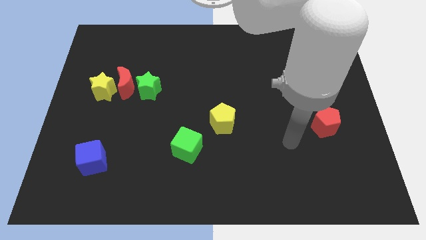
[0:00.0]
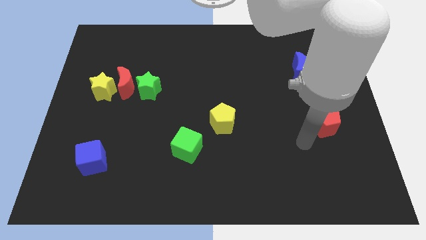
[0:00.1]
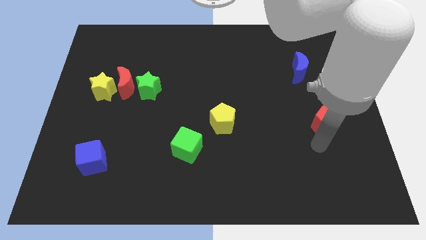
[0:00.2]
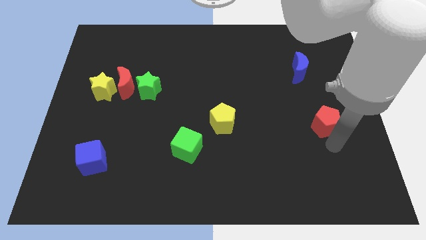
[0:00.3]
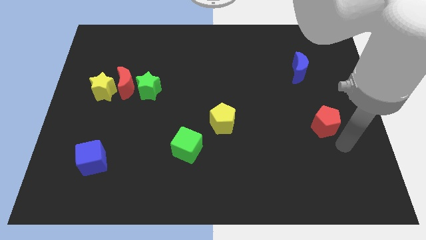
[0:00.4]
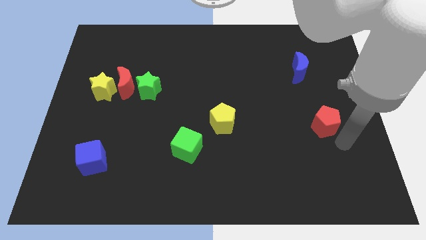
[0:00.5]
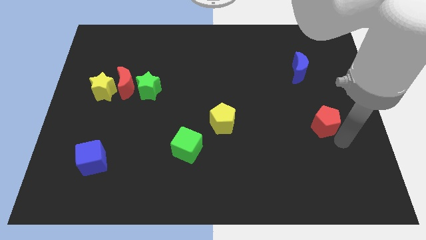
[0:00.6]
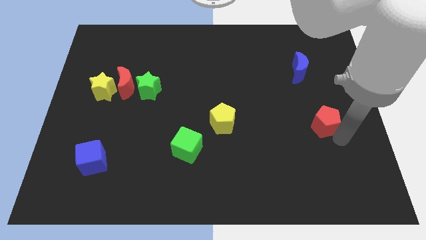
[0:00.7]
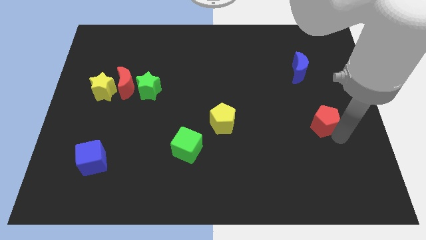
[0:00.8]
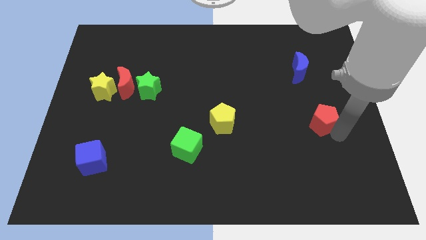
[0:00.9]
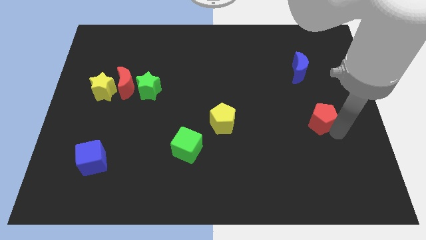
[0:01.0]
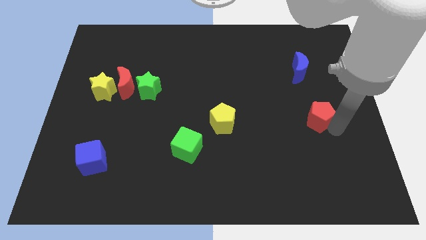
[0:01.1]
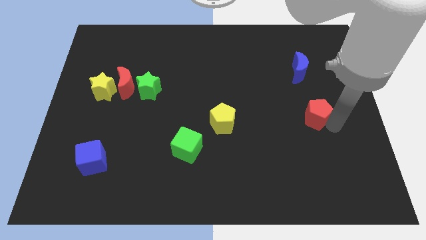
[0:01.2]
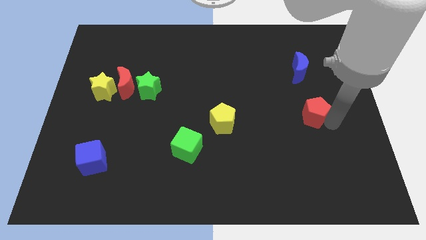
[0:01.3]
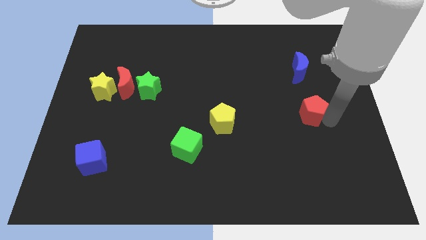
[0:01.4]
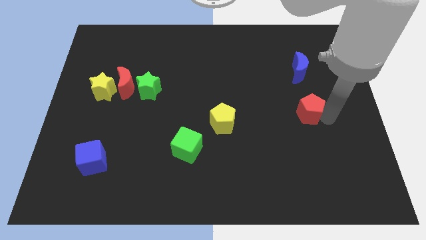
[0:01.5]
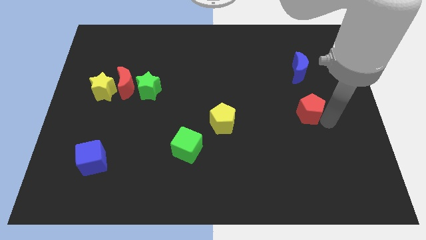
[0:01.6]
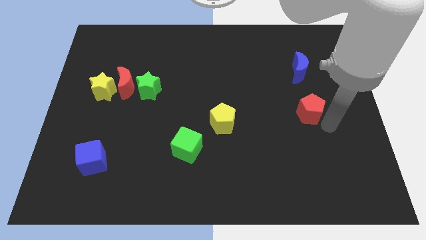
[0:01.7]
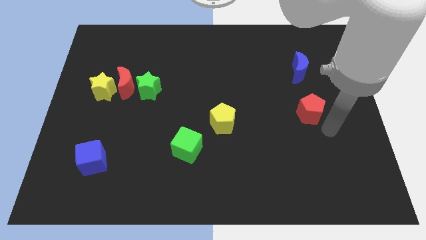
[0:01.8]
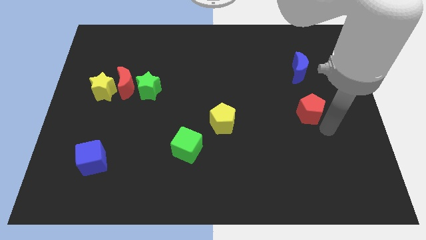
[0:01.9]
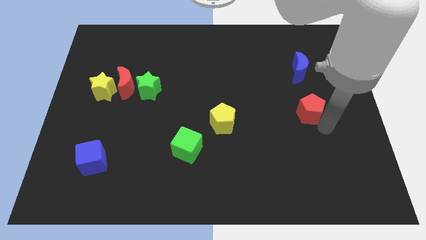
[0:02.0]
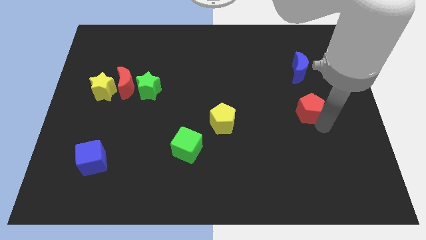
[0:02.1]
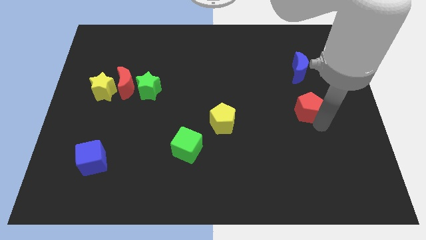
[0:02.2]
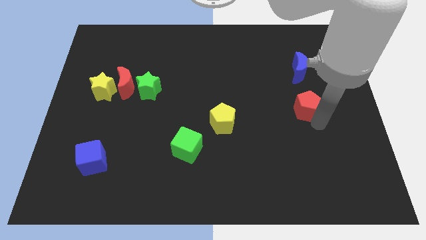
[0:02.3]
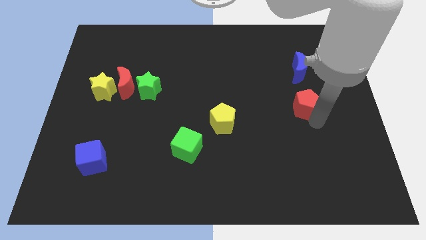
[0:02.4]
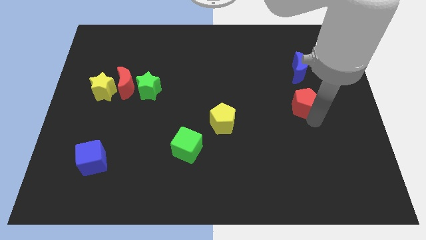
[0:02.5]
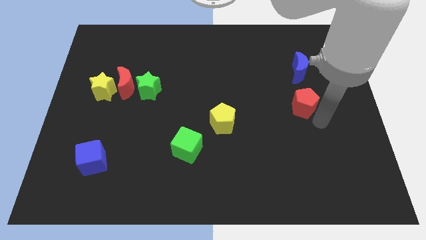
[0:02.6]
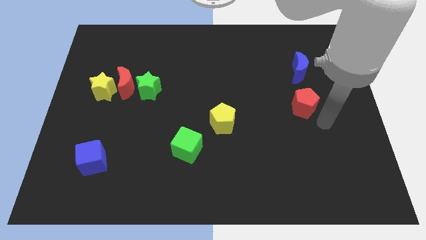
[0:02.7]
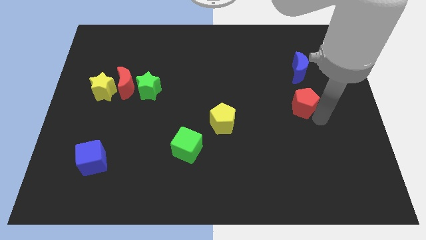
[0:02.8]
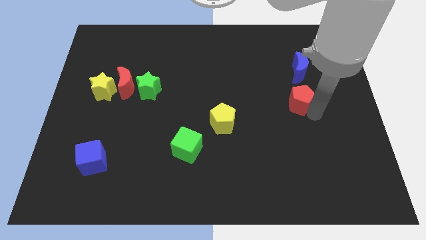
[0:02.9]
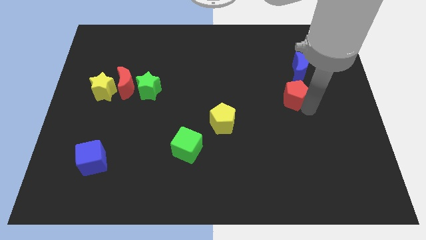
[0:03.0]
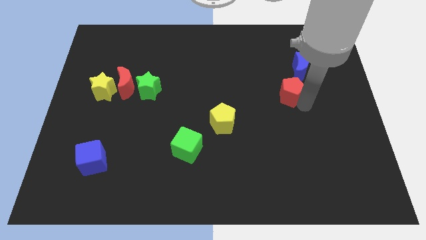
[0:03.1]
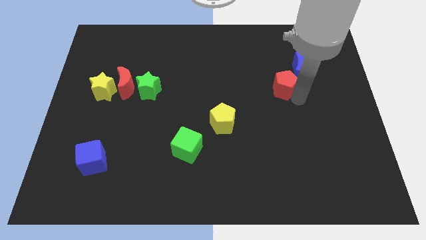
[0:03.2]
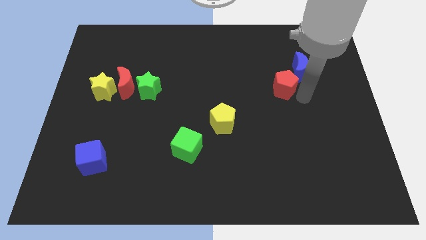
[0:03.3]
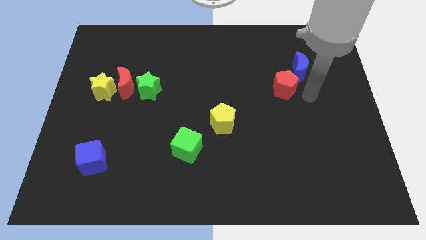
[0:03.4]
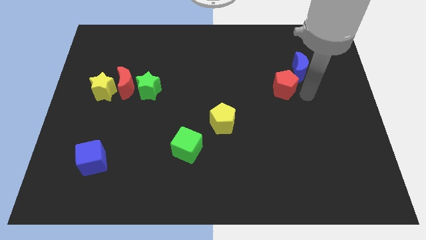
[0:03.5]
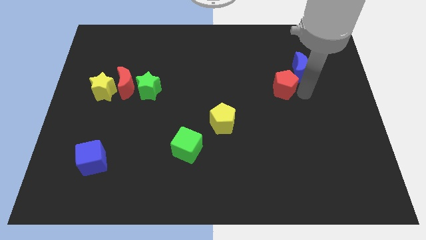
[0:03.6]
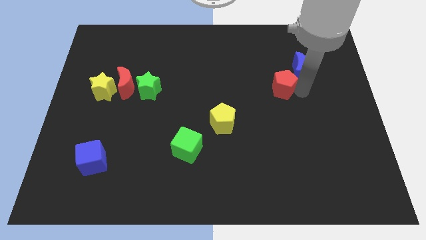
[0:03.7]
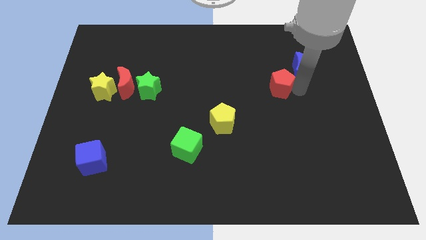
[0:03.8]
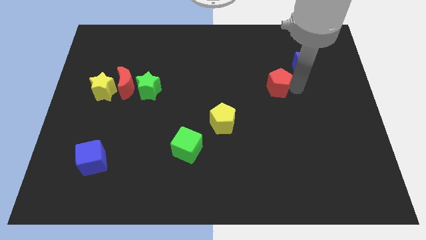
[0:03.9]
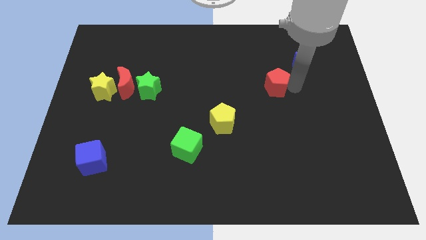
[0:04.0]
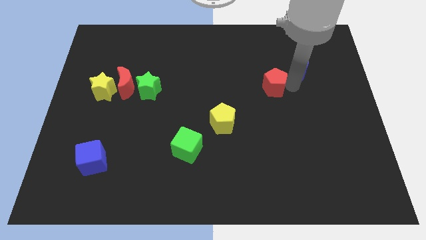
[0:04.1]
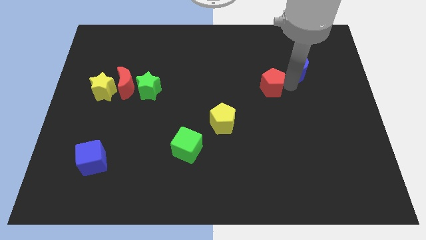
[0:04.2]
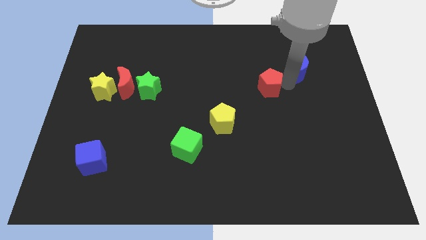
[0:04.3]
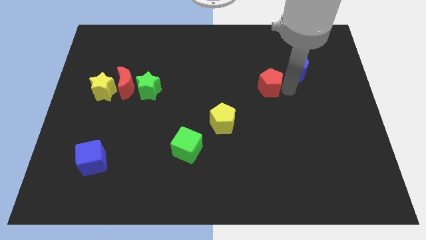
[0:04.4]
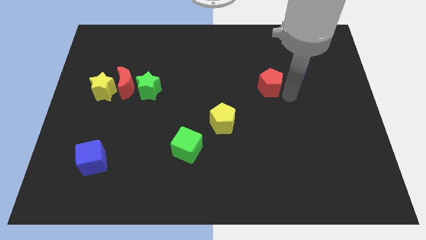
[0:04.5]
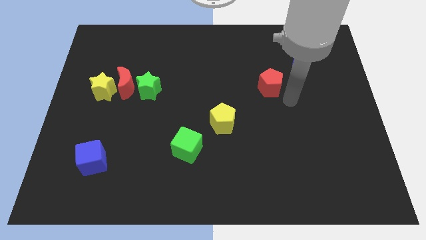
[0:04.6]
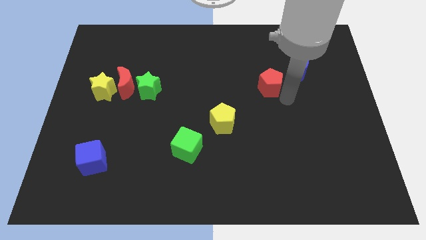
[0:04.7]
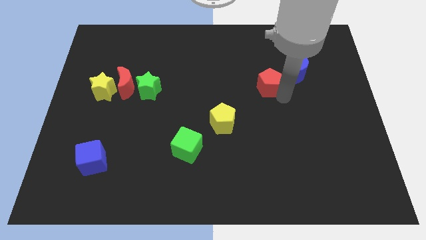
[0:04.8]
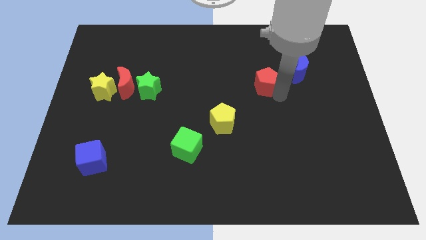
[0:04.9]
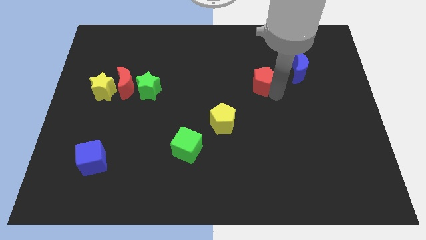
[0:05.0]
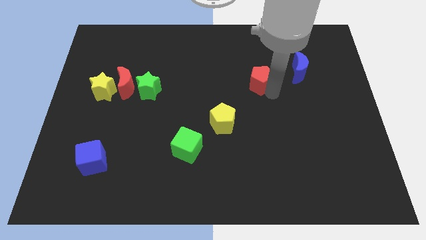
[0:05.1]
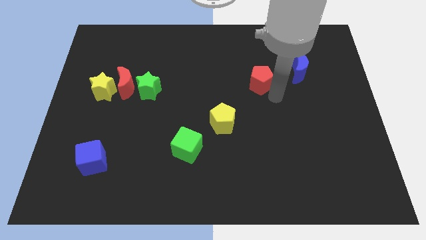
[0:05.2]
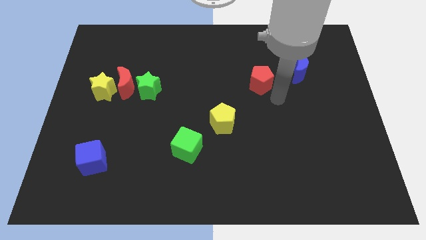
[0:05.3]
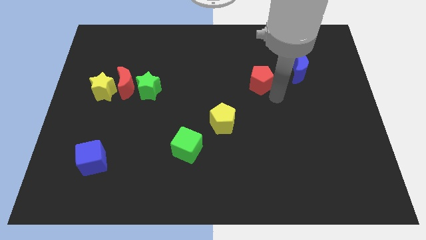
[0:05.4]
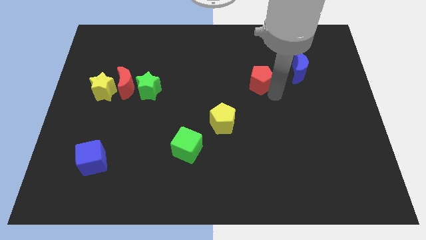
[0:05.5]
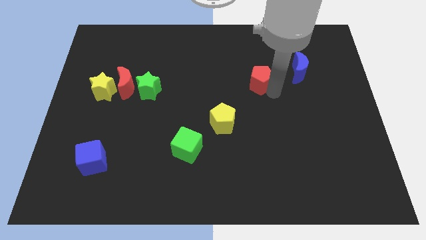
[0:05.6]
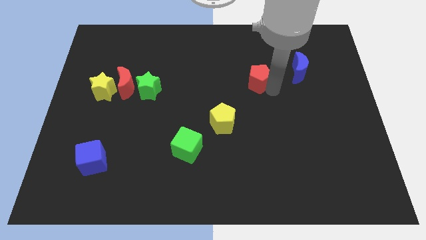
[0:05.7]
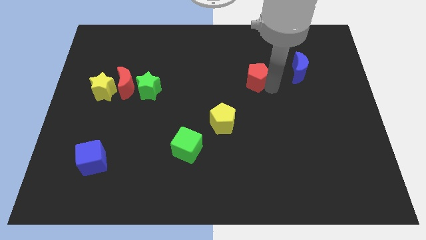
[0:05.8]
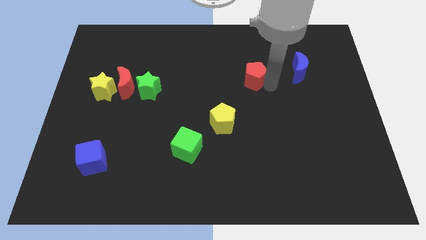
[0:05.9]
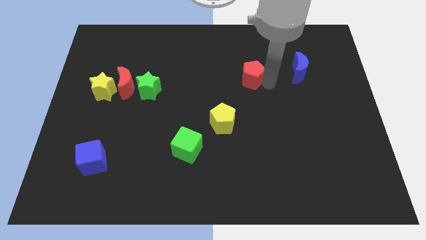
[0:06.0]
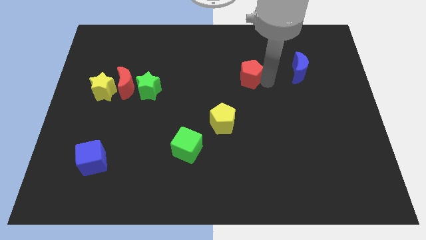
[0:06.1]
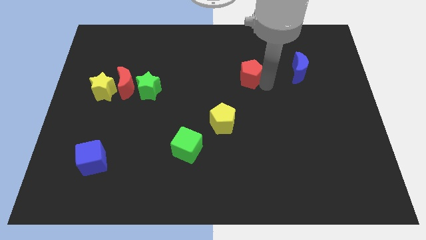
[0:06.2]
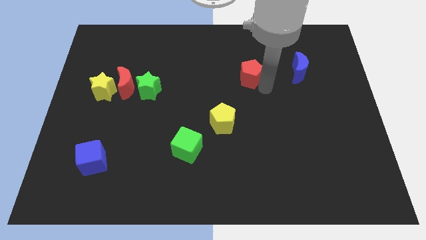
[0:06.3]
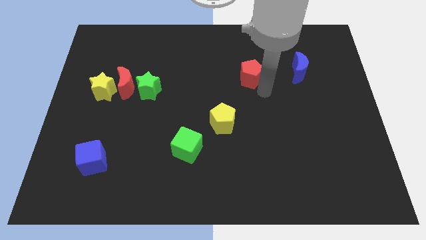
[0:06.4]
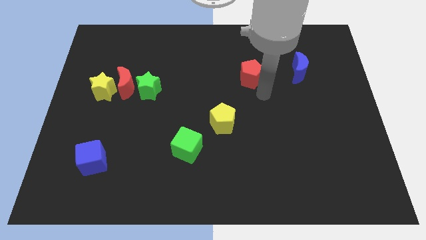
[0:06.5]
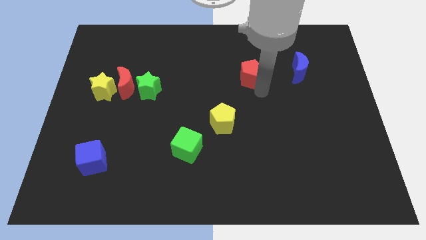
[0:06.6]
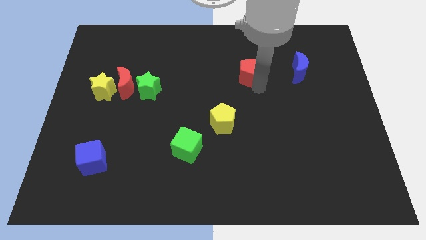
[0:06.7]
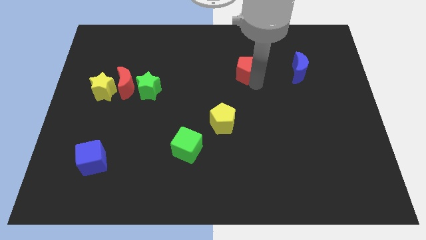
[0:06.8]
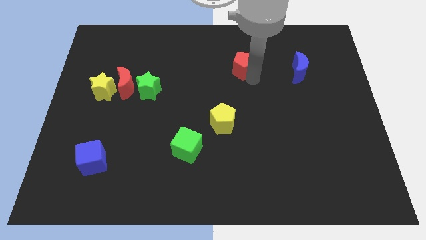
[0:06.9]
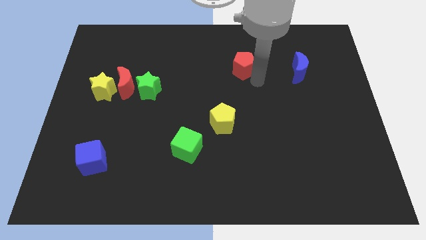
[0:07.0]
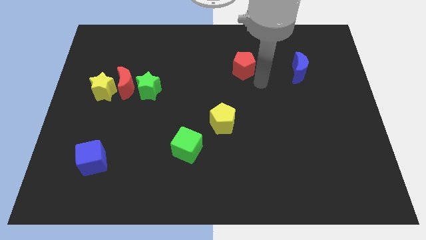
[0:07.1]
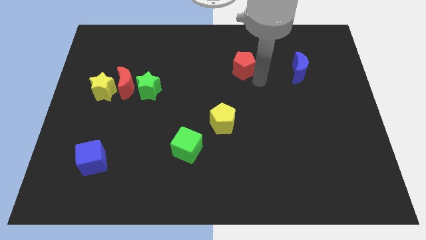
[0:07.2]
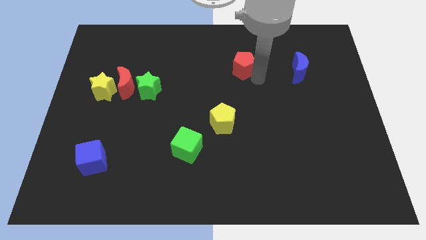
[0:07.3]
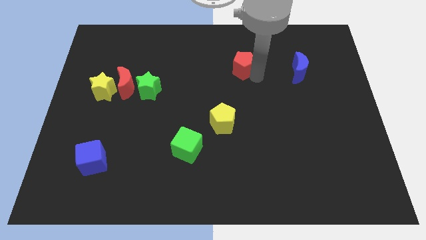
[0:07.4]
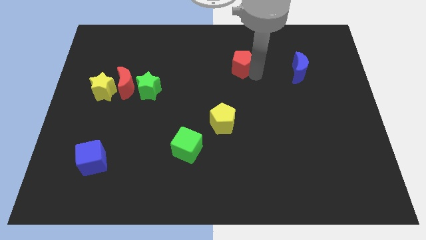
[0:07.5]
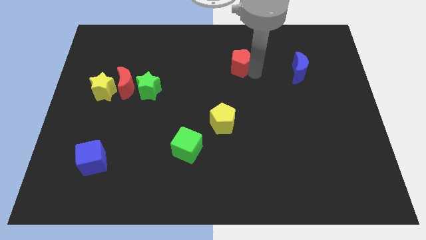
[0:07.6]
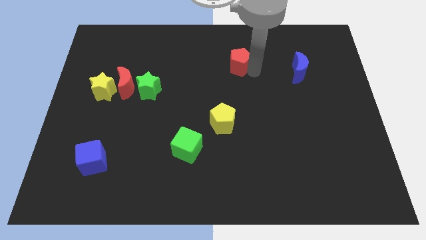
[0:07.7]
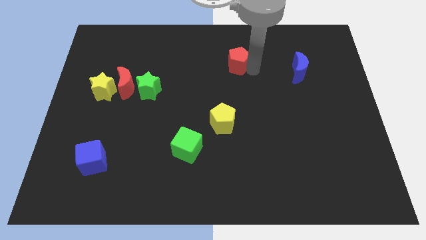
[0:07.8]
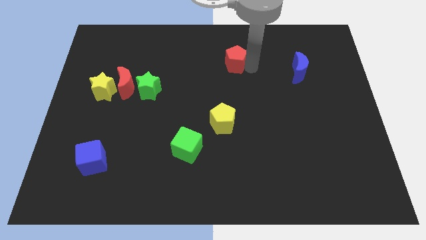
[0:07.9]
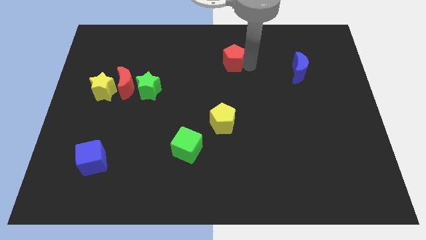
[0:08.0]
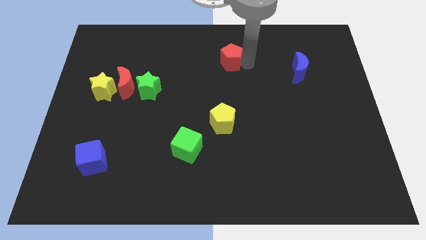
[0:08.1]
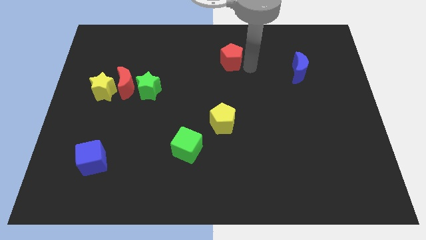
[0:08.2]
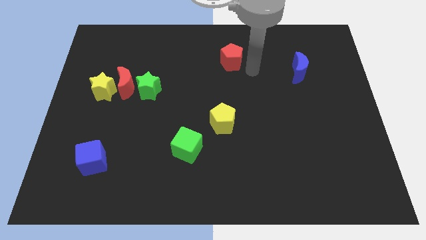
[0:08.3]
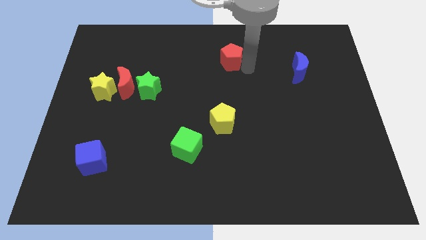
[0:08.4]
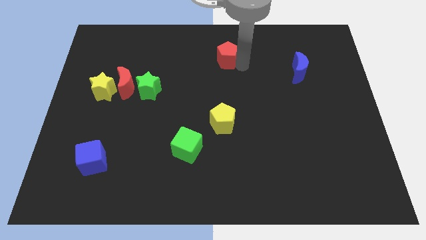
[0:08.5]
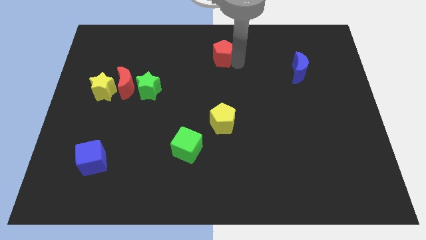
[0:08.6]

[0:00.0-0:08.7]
move the red pentagon to the towards your base
